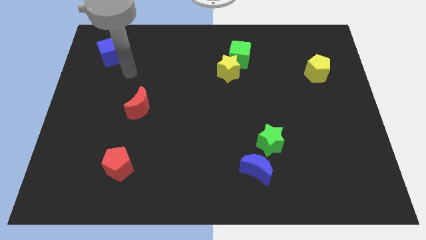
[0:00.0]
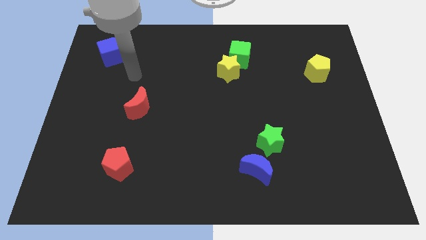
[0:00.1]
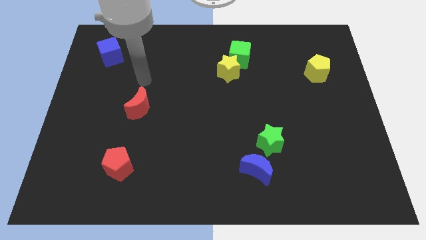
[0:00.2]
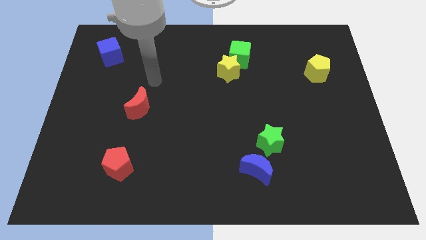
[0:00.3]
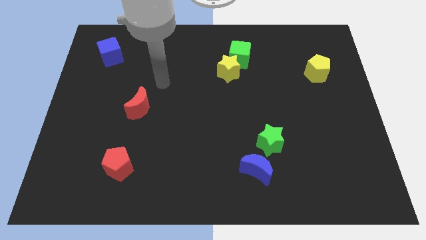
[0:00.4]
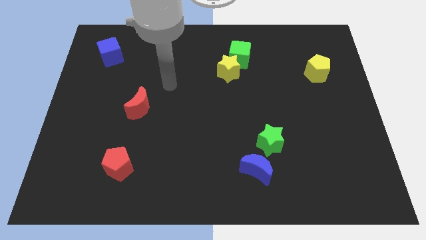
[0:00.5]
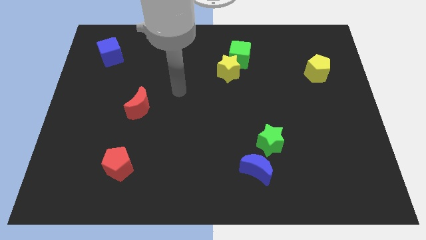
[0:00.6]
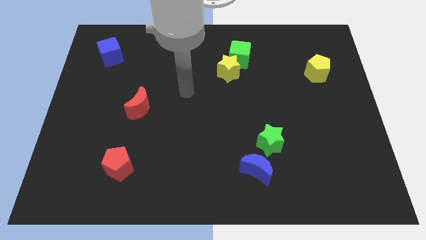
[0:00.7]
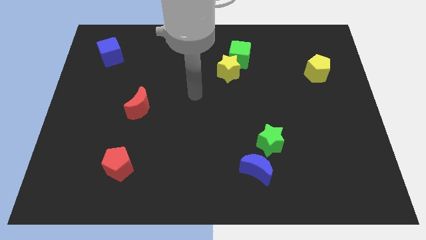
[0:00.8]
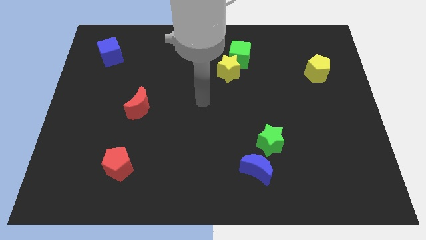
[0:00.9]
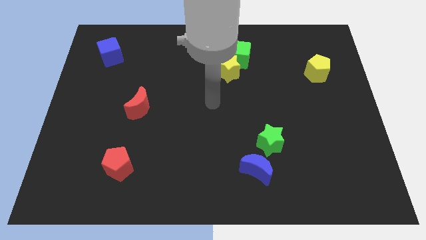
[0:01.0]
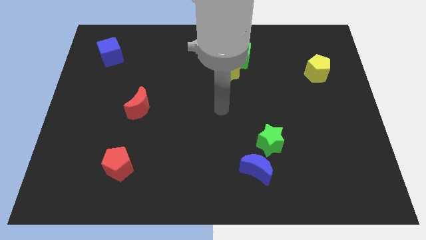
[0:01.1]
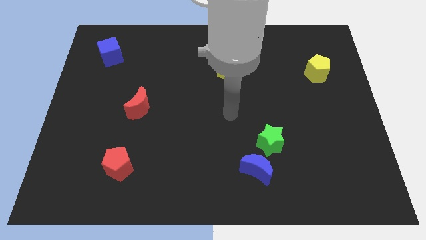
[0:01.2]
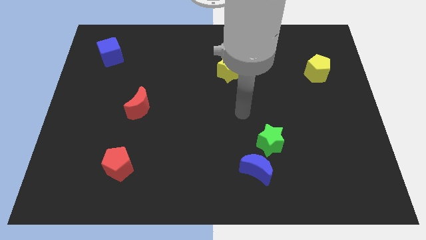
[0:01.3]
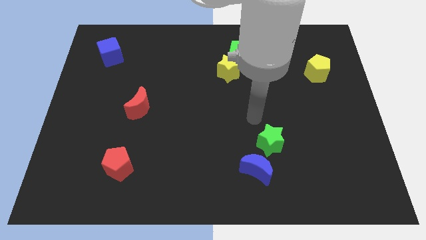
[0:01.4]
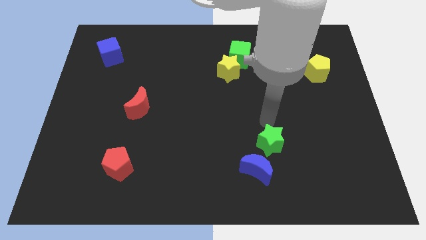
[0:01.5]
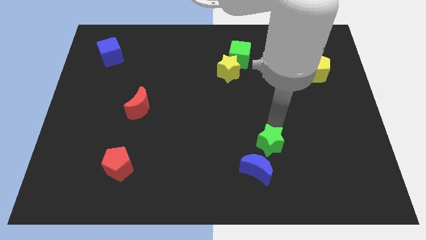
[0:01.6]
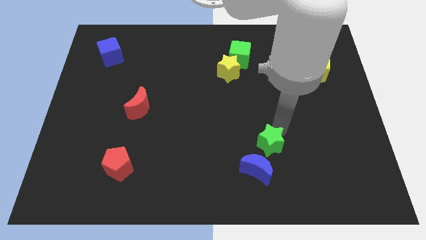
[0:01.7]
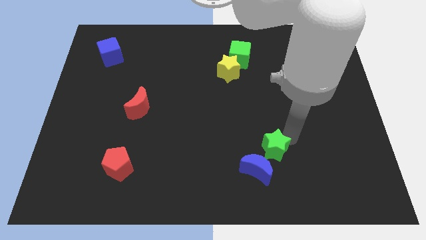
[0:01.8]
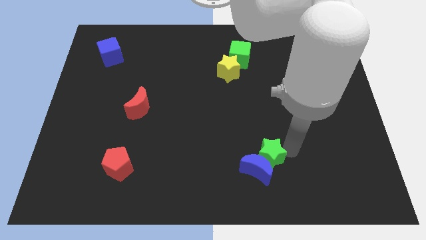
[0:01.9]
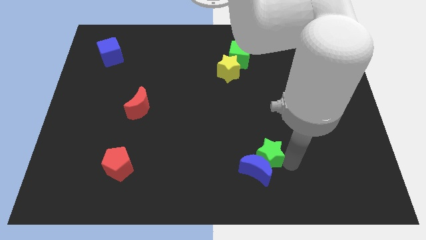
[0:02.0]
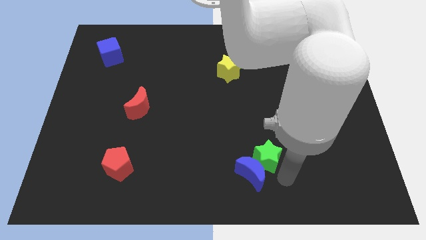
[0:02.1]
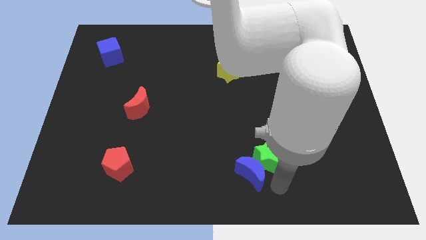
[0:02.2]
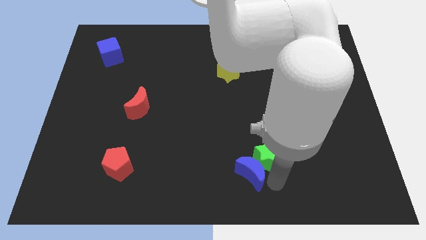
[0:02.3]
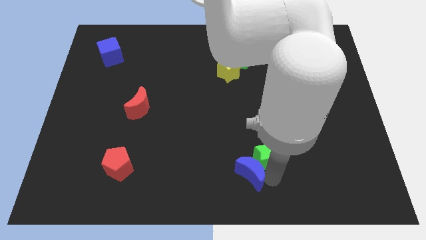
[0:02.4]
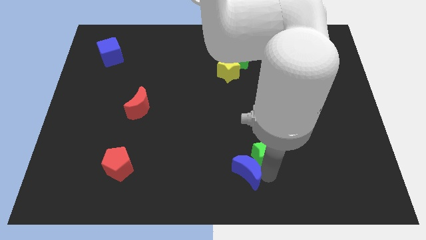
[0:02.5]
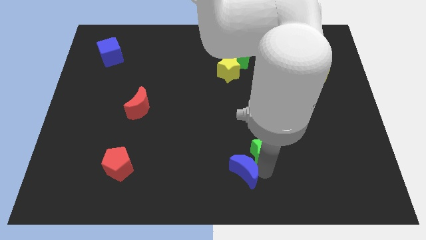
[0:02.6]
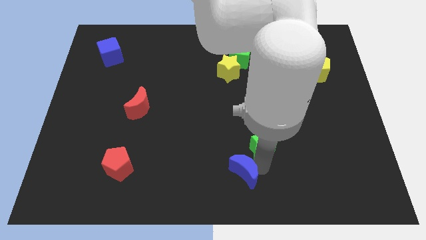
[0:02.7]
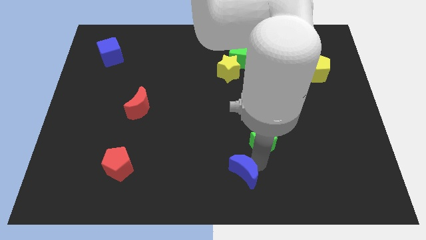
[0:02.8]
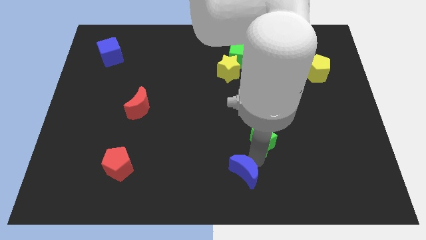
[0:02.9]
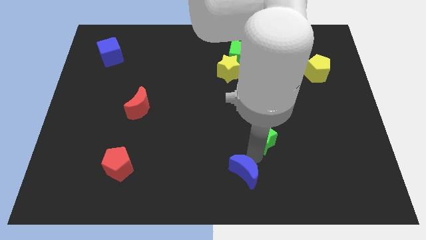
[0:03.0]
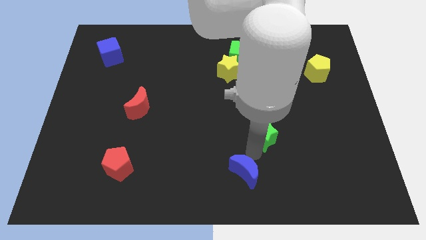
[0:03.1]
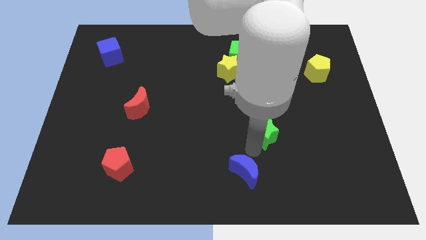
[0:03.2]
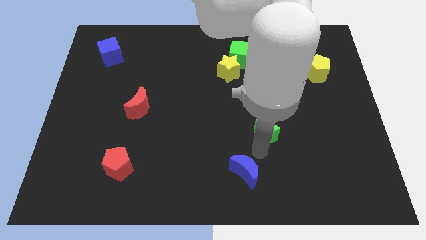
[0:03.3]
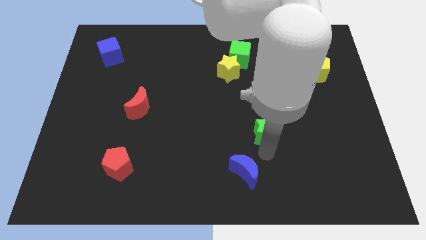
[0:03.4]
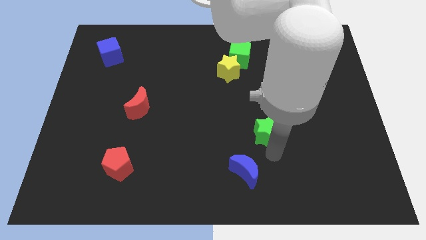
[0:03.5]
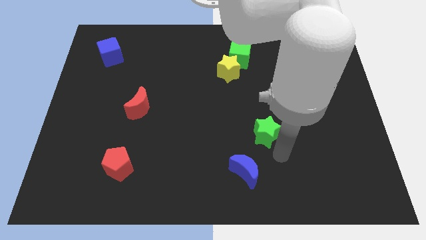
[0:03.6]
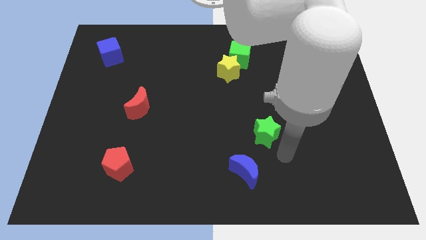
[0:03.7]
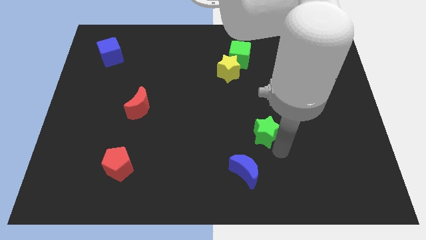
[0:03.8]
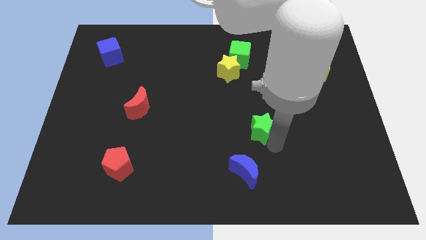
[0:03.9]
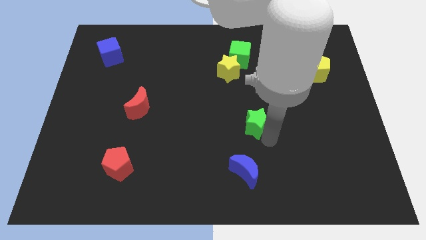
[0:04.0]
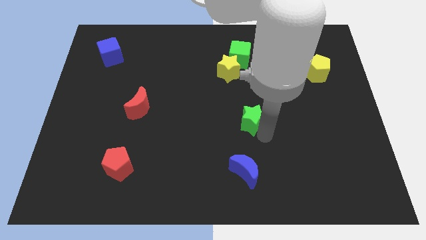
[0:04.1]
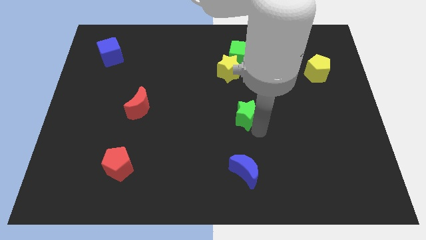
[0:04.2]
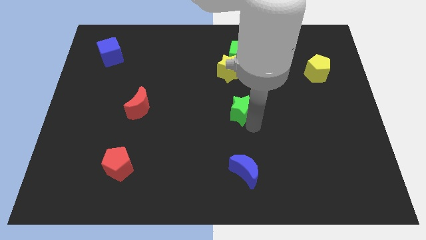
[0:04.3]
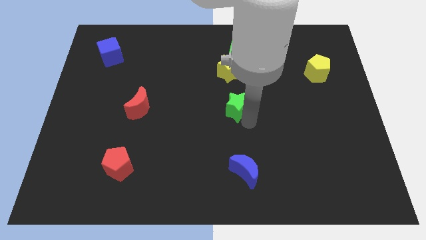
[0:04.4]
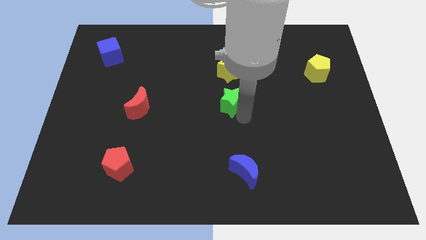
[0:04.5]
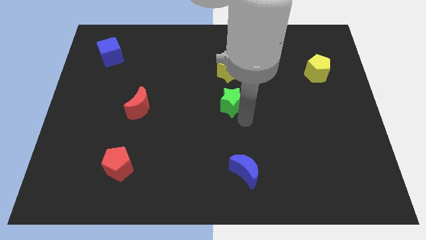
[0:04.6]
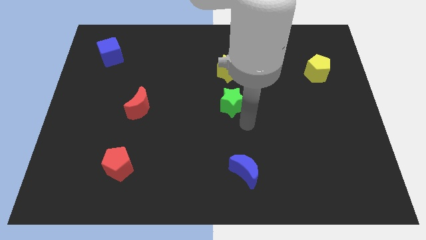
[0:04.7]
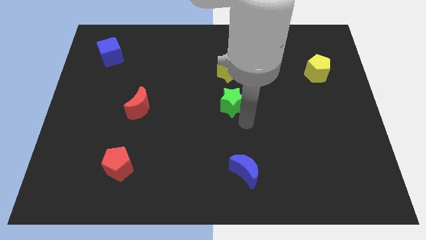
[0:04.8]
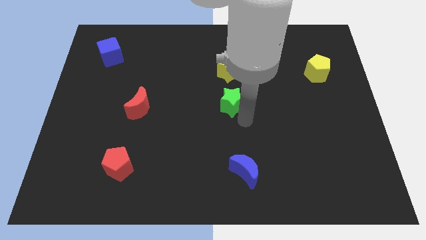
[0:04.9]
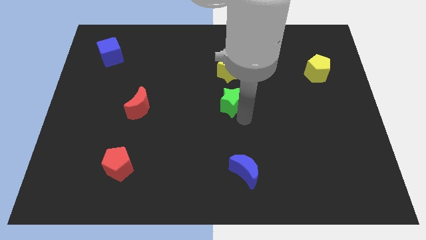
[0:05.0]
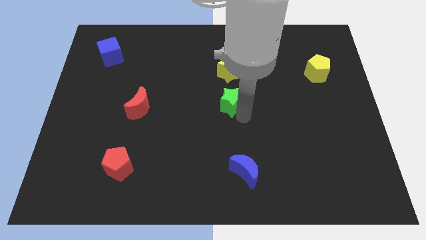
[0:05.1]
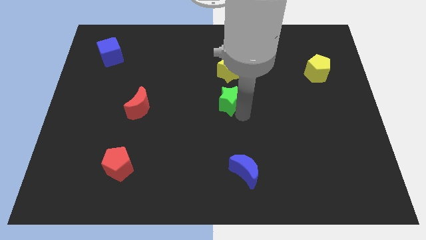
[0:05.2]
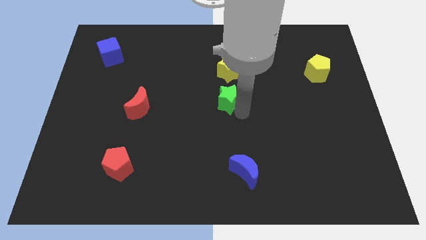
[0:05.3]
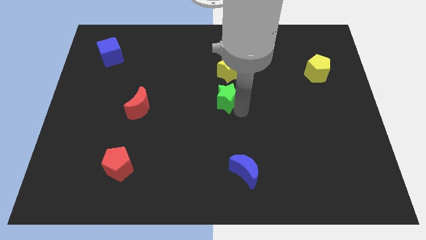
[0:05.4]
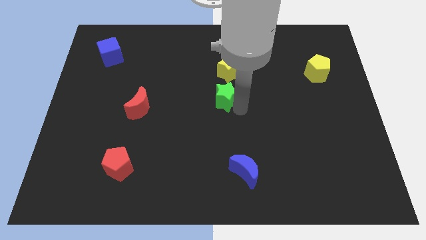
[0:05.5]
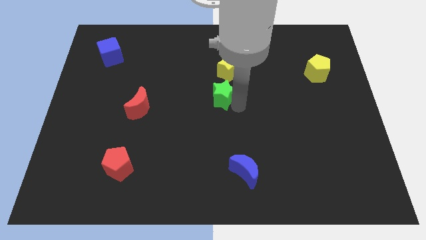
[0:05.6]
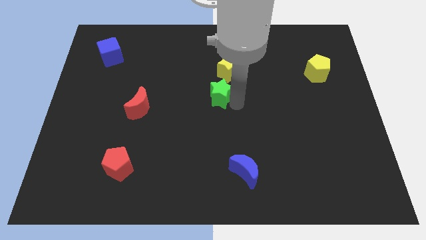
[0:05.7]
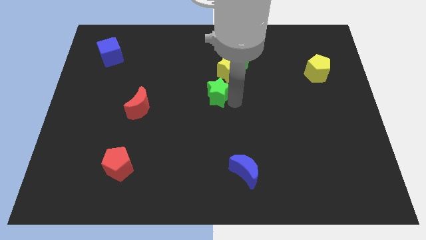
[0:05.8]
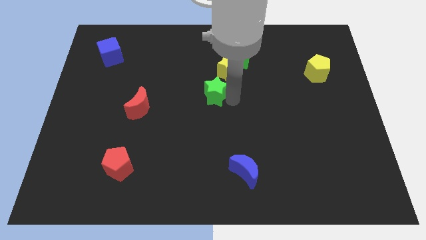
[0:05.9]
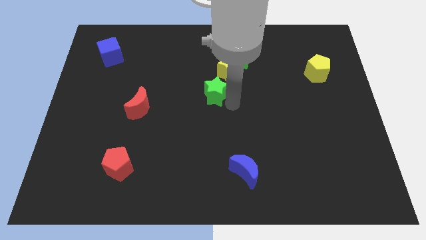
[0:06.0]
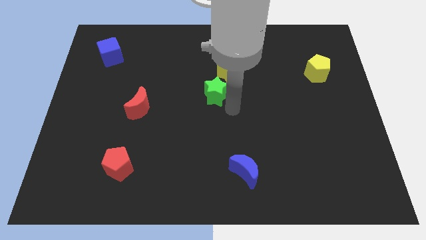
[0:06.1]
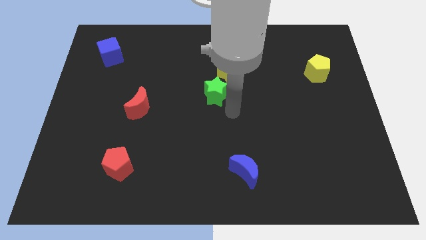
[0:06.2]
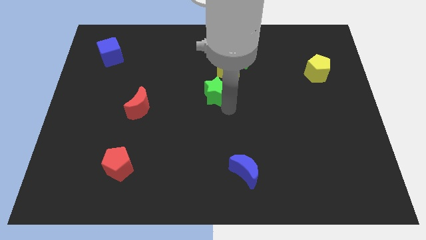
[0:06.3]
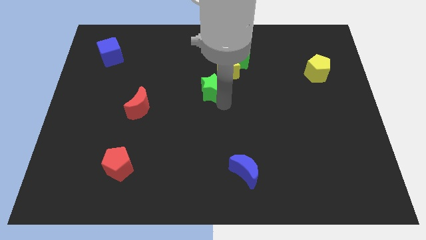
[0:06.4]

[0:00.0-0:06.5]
slide the green star diagonally up and left

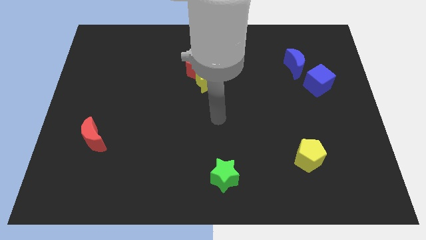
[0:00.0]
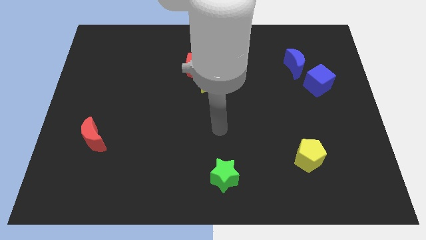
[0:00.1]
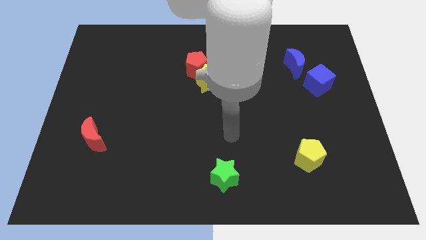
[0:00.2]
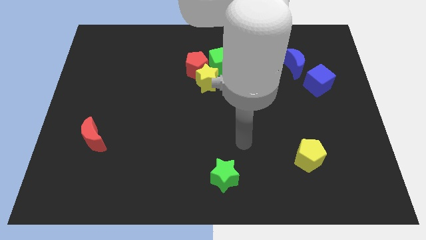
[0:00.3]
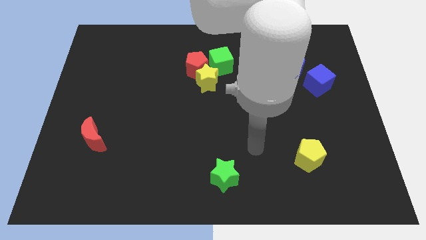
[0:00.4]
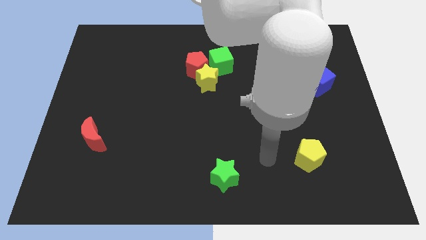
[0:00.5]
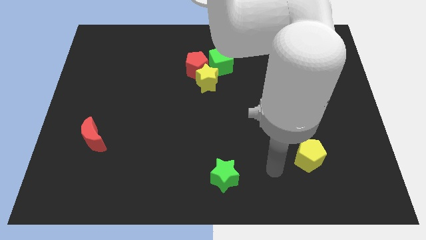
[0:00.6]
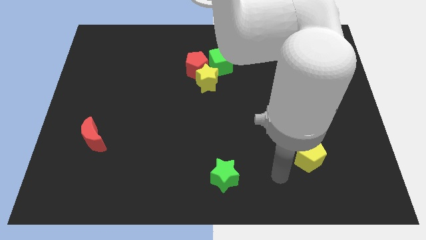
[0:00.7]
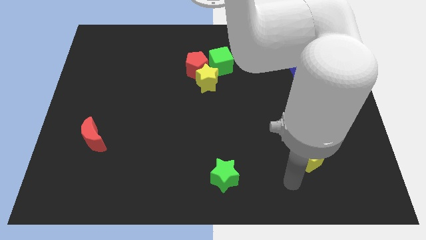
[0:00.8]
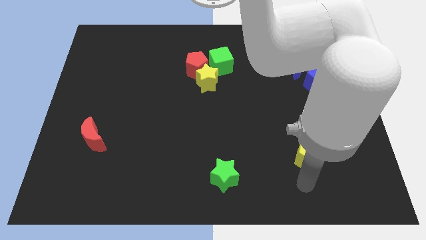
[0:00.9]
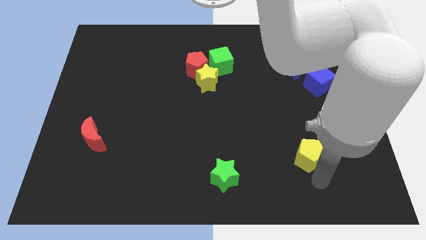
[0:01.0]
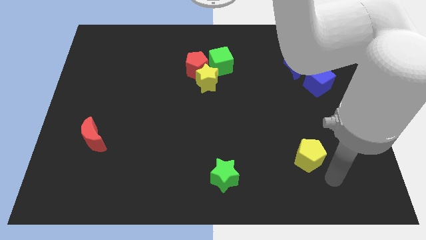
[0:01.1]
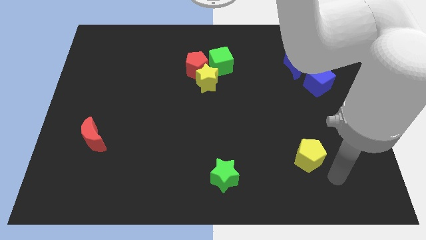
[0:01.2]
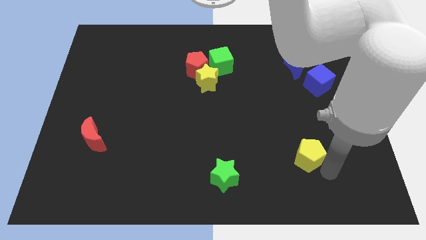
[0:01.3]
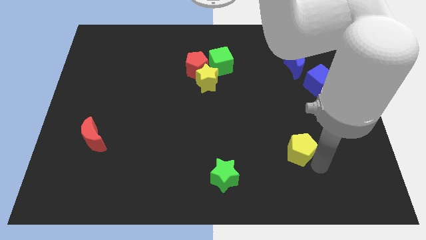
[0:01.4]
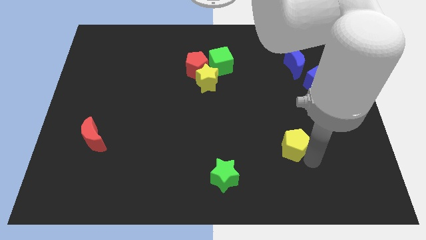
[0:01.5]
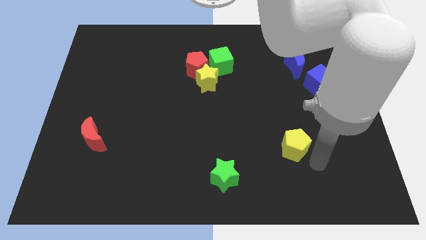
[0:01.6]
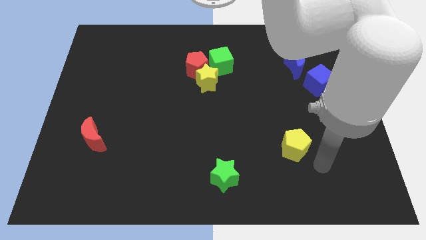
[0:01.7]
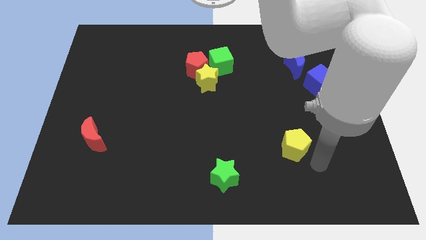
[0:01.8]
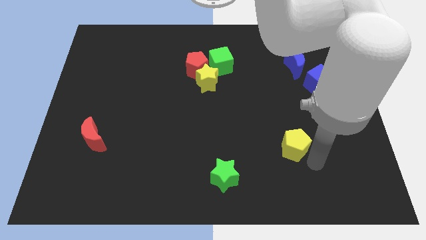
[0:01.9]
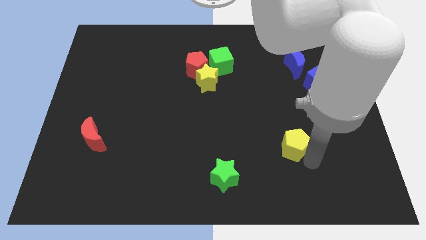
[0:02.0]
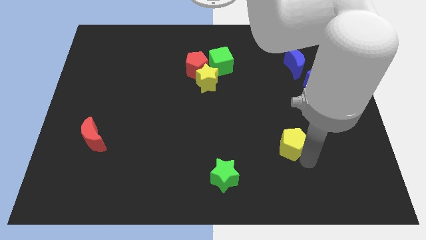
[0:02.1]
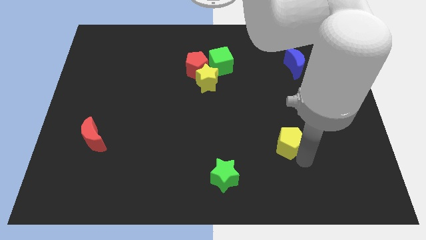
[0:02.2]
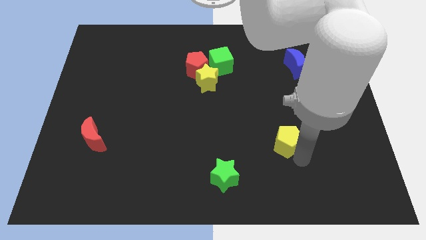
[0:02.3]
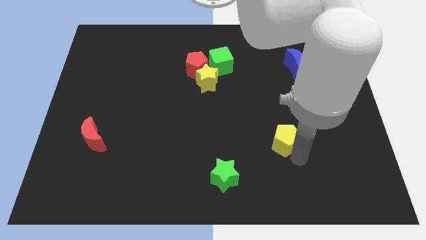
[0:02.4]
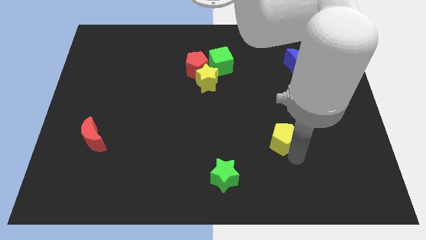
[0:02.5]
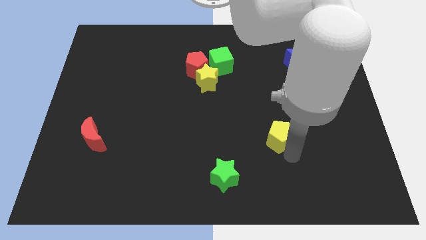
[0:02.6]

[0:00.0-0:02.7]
push the yellow pentagon up and then left slightly
